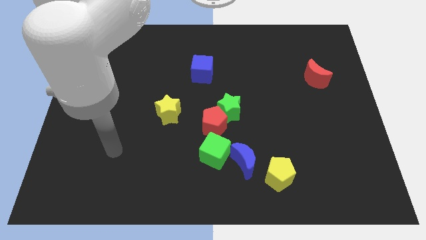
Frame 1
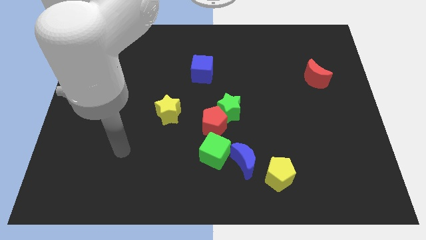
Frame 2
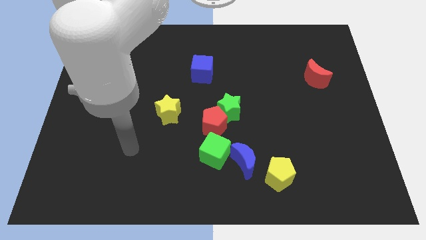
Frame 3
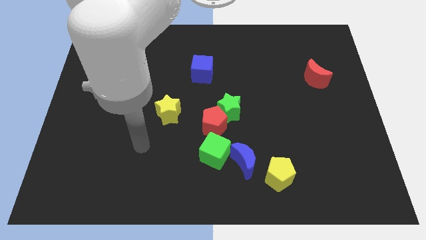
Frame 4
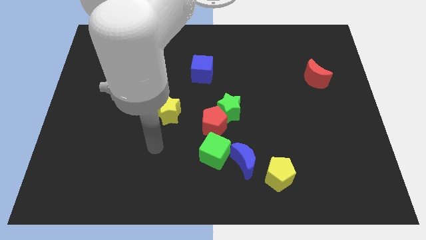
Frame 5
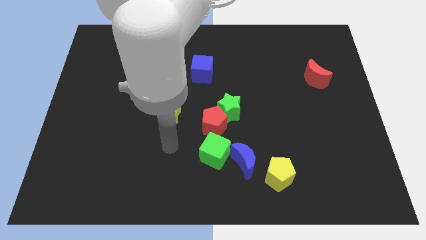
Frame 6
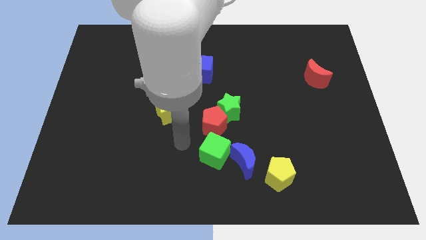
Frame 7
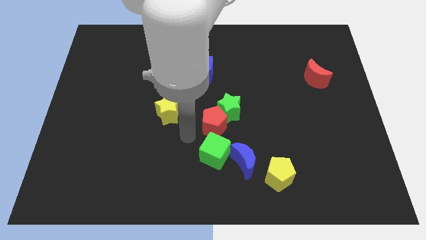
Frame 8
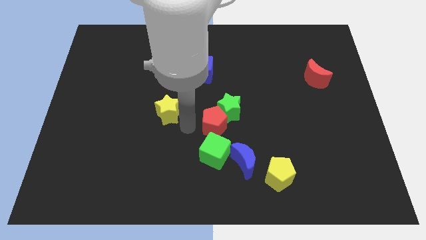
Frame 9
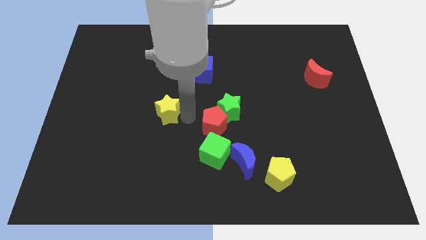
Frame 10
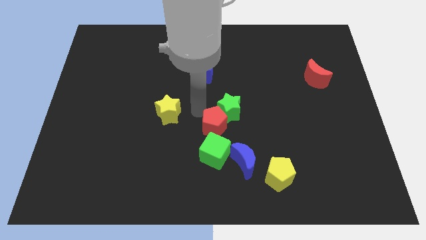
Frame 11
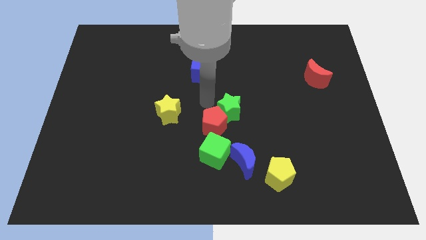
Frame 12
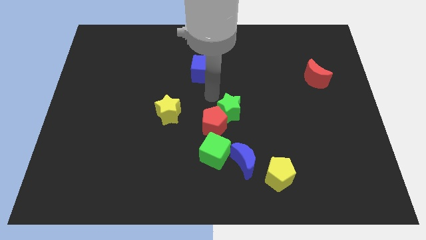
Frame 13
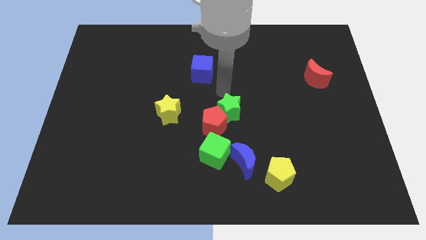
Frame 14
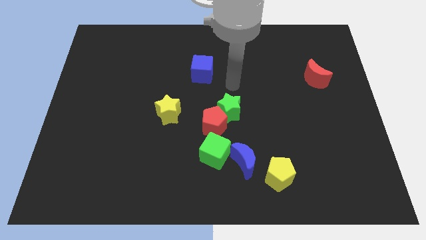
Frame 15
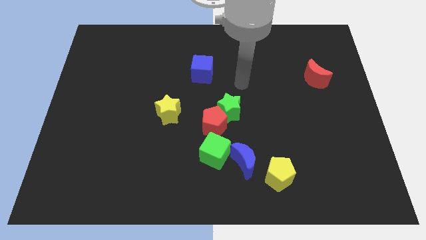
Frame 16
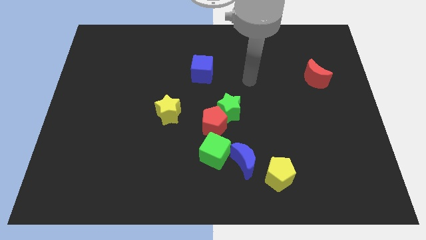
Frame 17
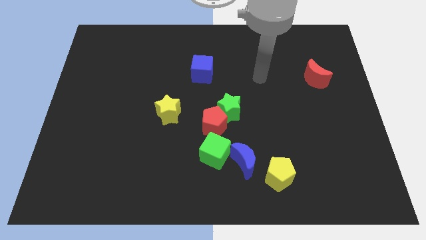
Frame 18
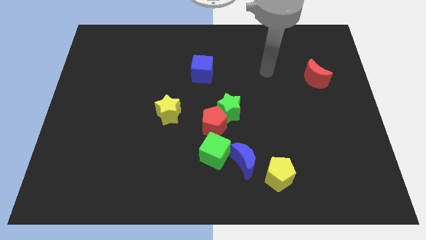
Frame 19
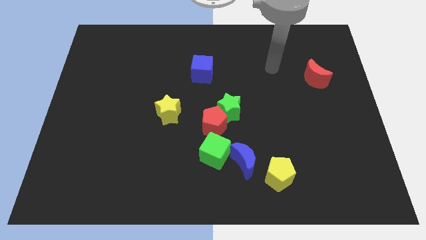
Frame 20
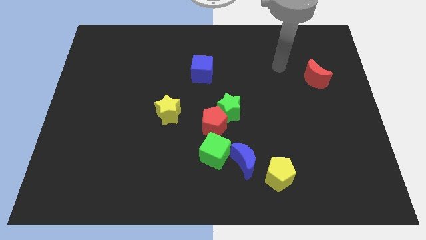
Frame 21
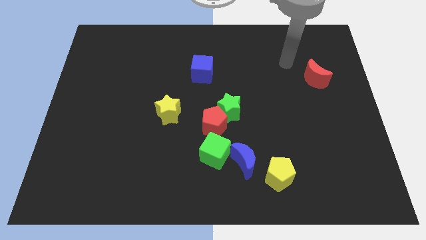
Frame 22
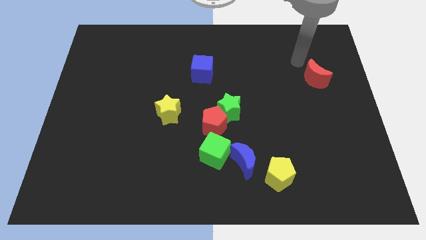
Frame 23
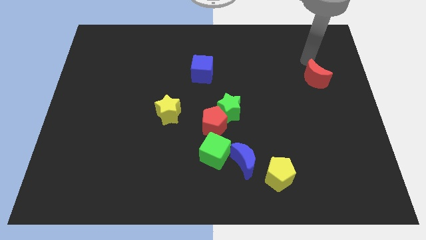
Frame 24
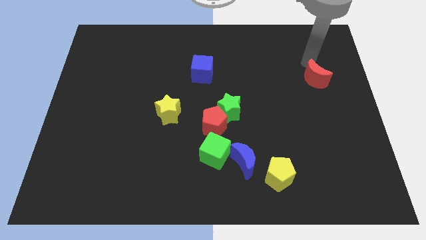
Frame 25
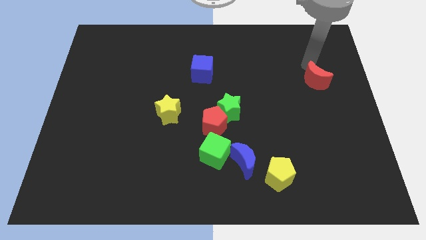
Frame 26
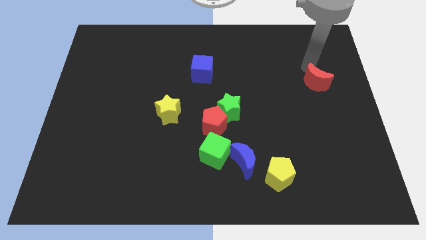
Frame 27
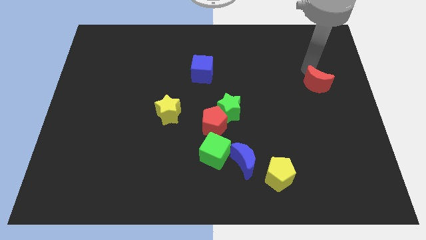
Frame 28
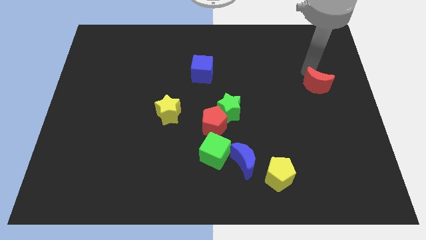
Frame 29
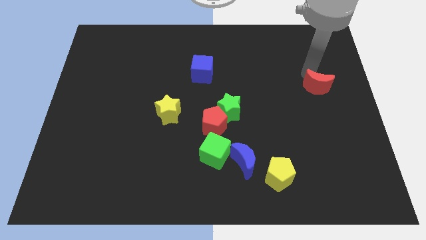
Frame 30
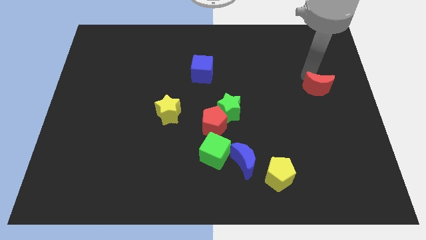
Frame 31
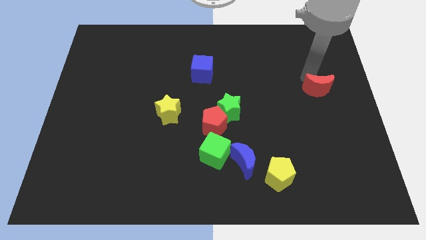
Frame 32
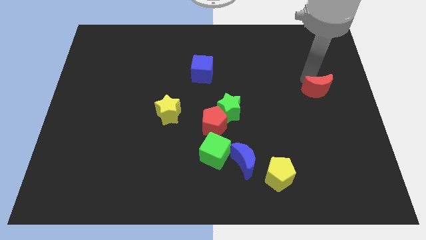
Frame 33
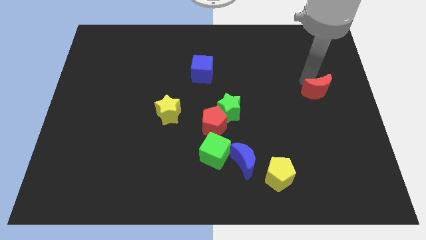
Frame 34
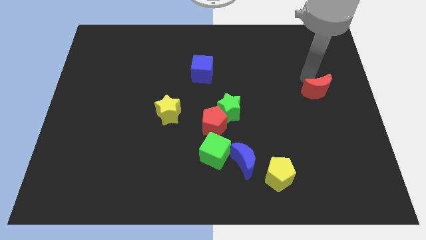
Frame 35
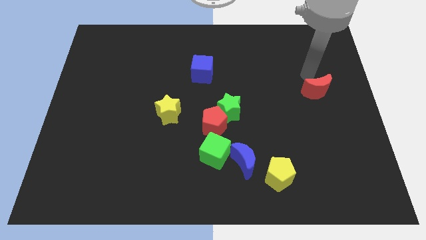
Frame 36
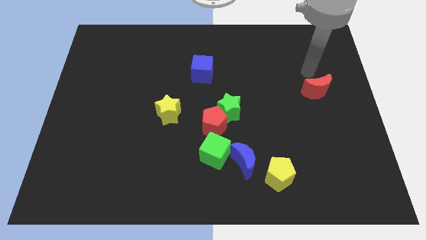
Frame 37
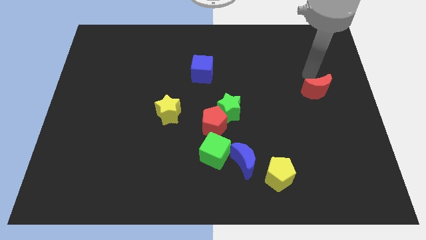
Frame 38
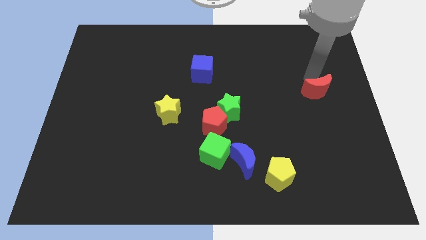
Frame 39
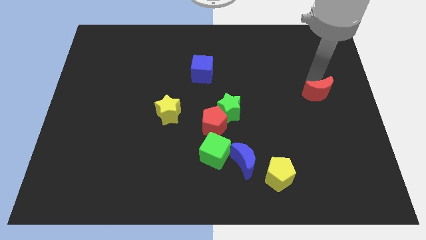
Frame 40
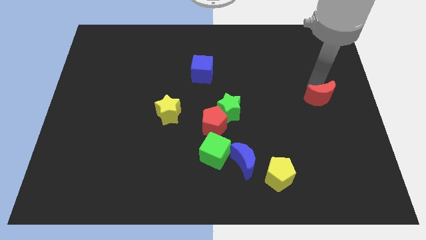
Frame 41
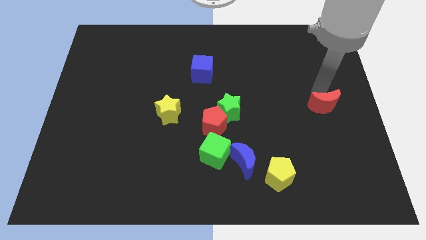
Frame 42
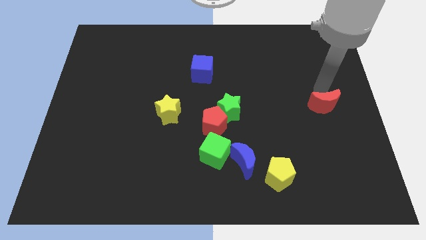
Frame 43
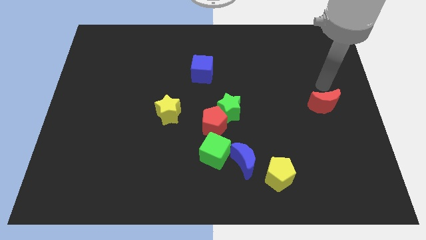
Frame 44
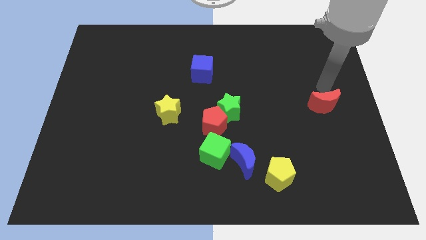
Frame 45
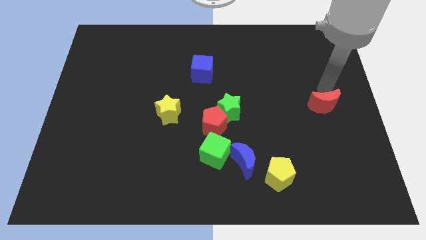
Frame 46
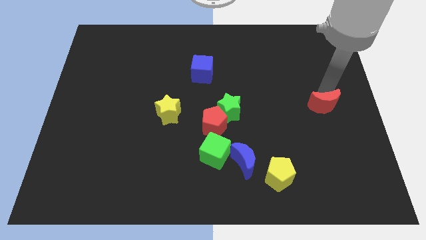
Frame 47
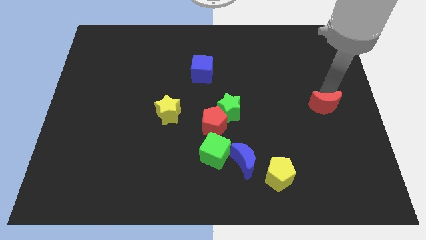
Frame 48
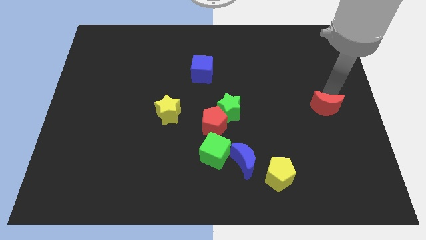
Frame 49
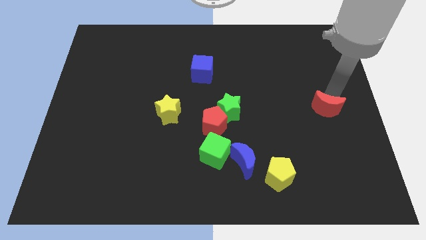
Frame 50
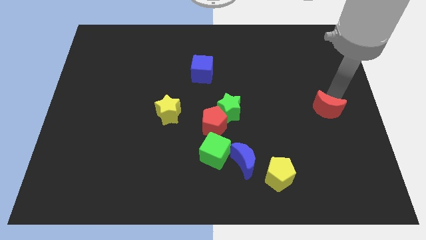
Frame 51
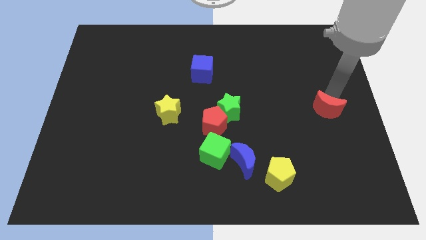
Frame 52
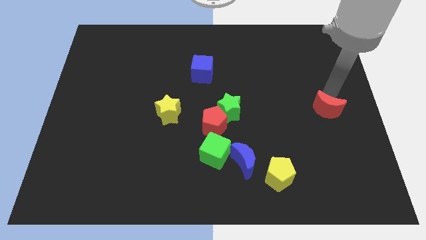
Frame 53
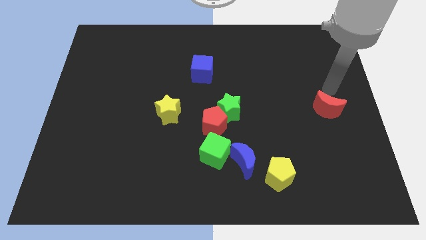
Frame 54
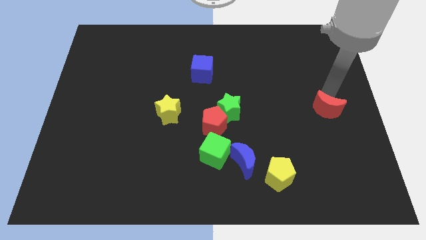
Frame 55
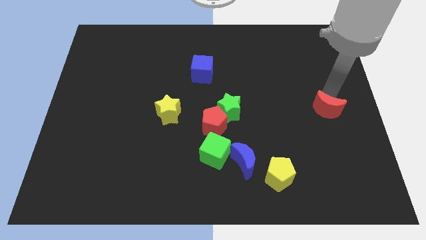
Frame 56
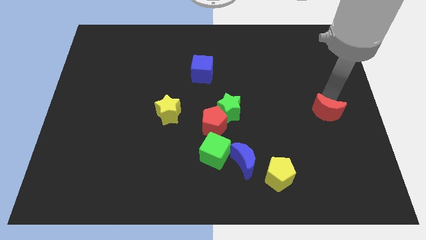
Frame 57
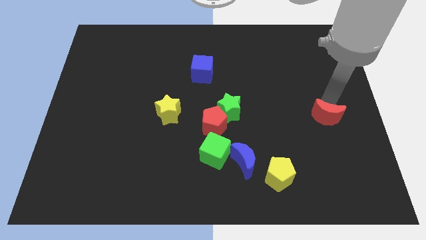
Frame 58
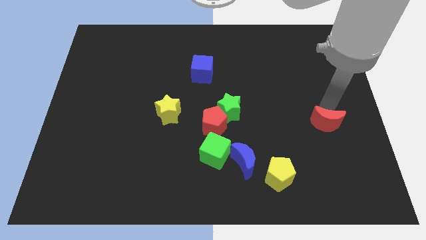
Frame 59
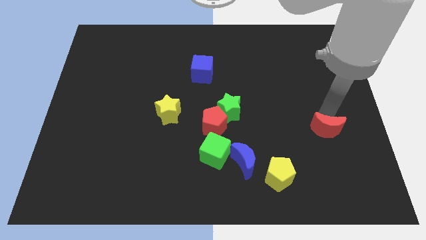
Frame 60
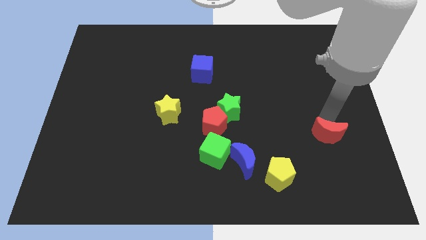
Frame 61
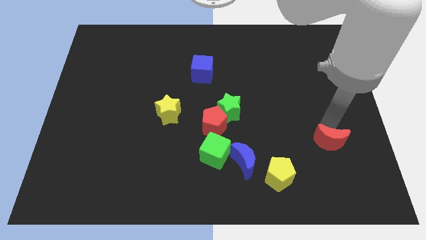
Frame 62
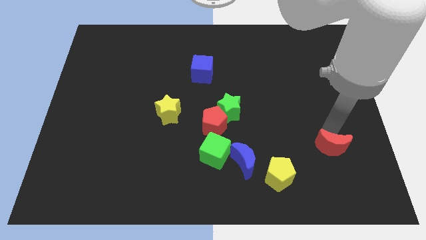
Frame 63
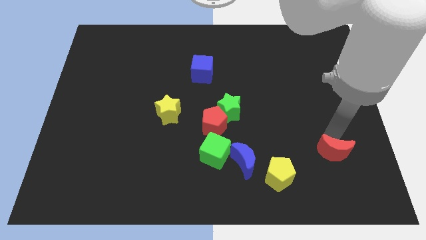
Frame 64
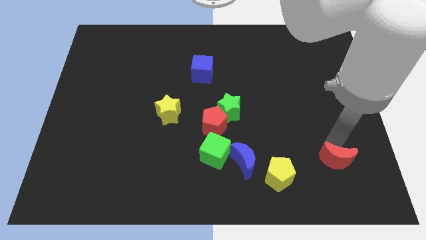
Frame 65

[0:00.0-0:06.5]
put the red moon to the right of the yellow pentagon

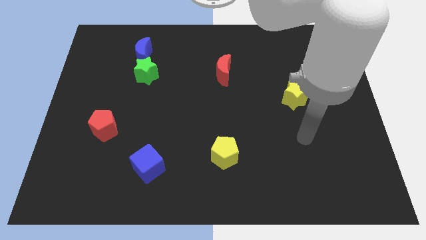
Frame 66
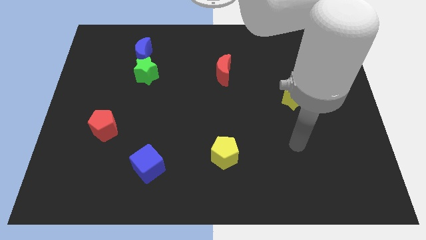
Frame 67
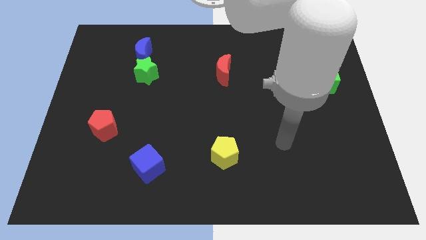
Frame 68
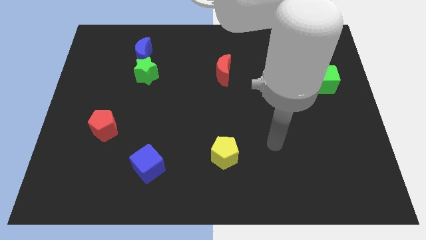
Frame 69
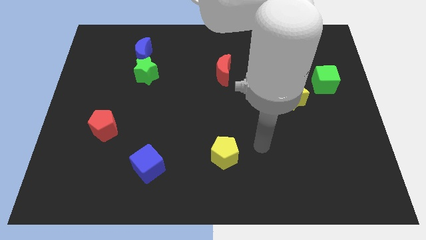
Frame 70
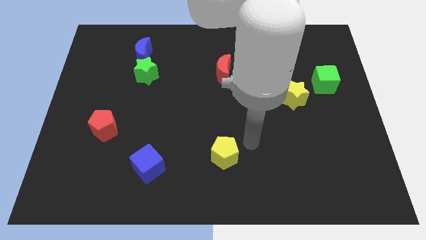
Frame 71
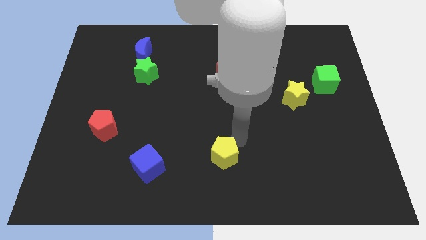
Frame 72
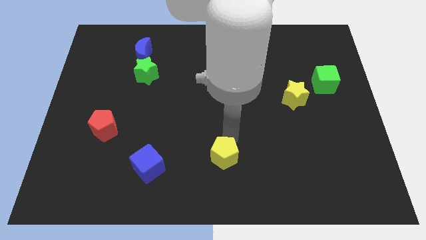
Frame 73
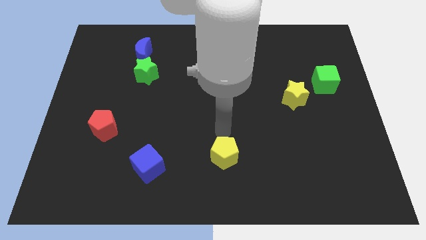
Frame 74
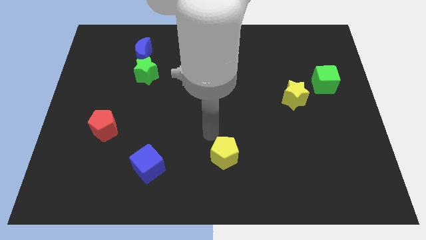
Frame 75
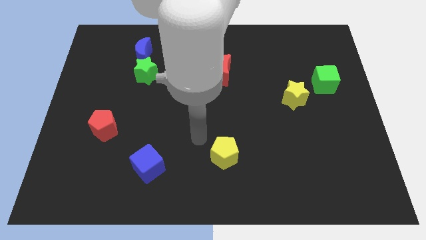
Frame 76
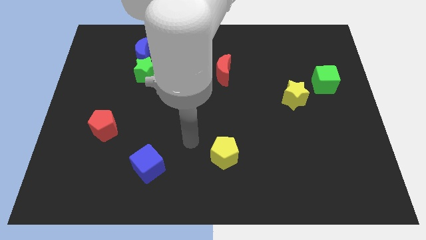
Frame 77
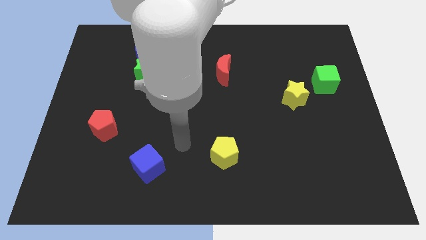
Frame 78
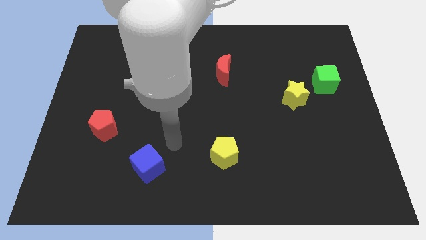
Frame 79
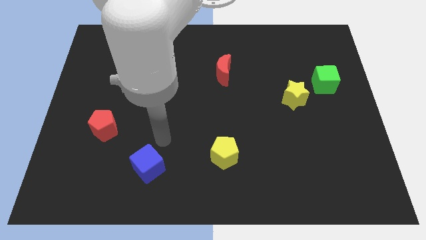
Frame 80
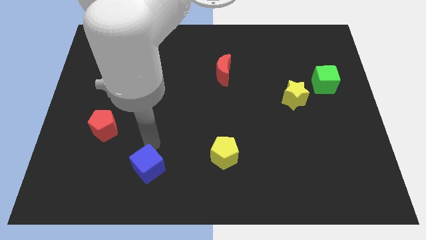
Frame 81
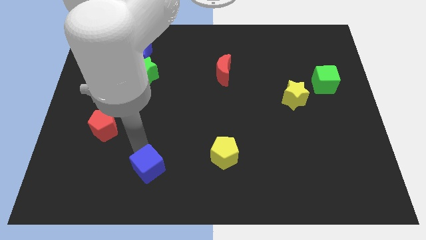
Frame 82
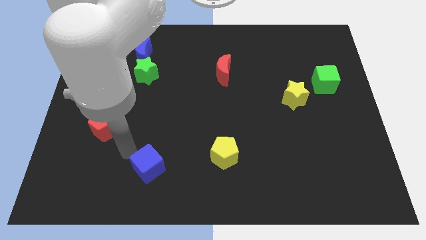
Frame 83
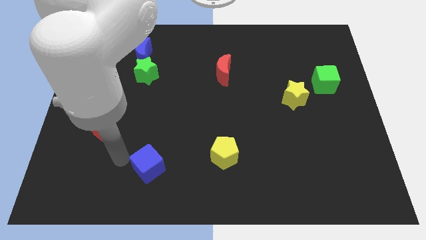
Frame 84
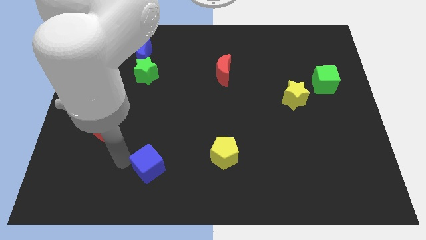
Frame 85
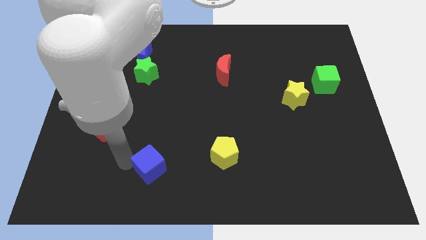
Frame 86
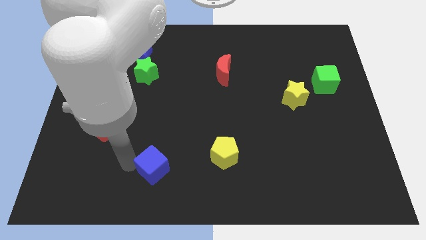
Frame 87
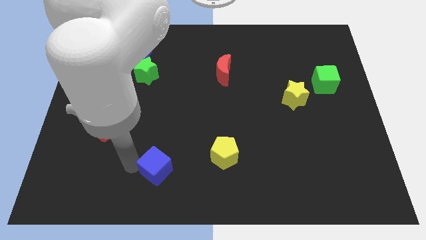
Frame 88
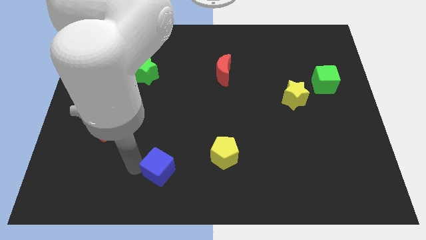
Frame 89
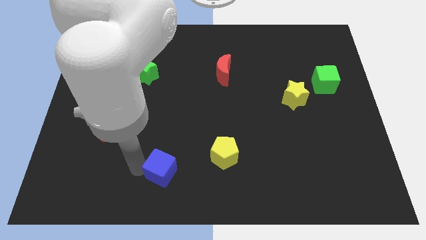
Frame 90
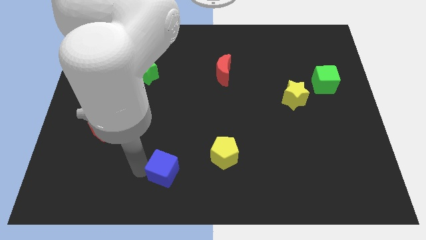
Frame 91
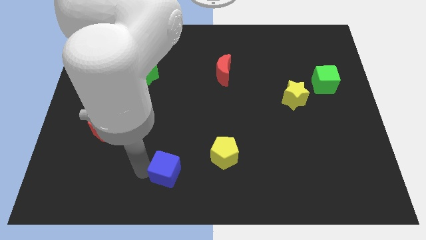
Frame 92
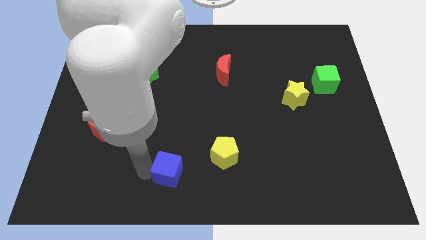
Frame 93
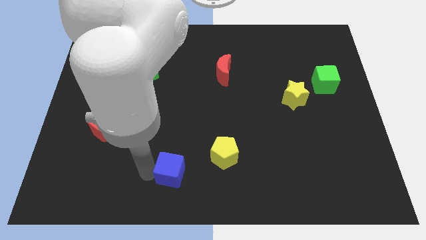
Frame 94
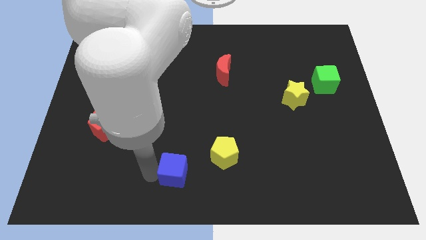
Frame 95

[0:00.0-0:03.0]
move the blue cube to the bottom left side of the yellow pentagon
